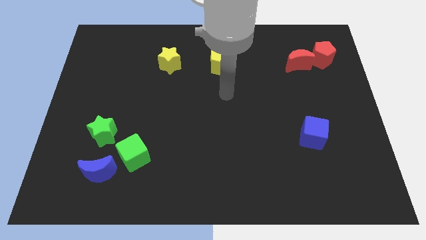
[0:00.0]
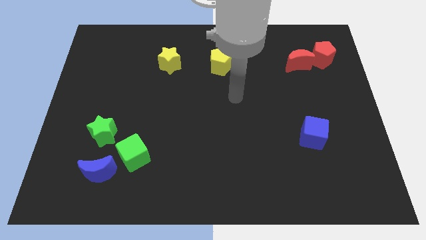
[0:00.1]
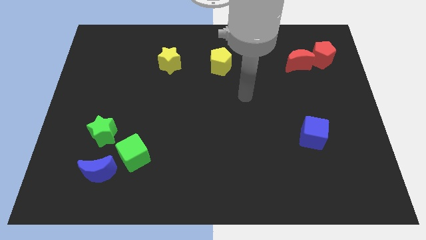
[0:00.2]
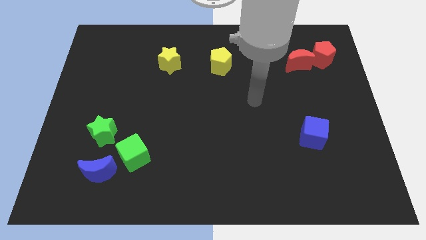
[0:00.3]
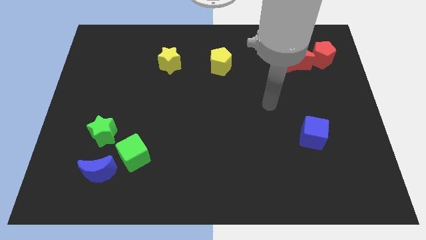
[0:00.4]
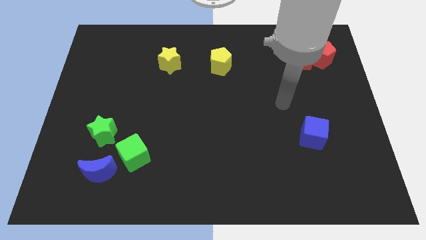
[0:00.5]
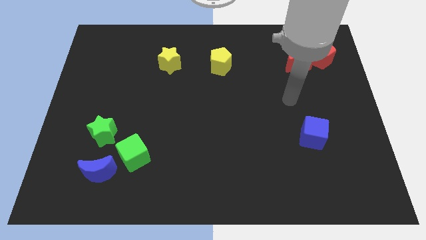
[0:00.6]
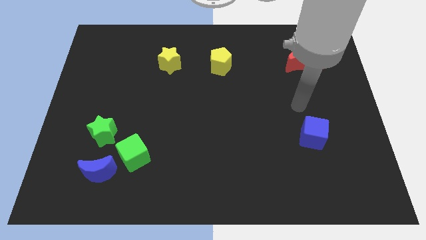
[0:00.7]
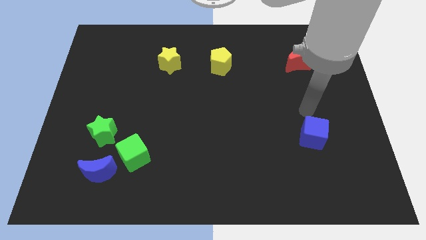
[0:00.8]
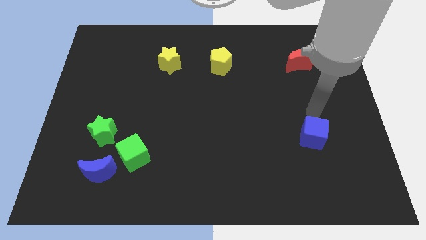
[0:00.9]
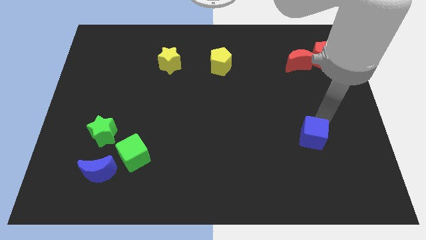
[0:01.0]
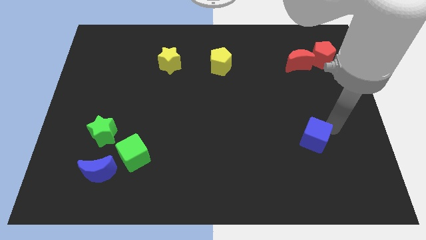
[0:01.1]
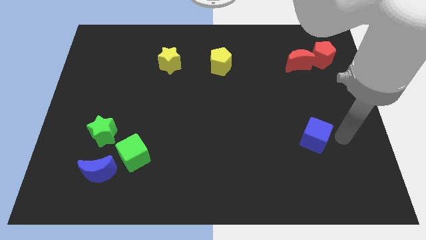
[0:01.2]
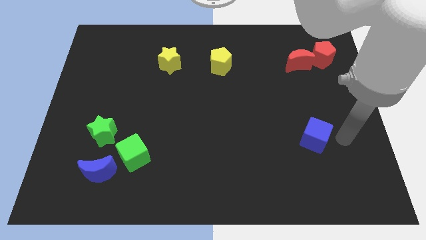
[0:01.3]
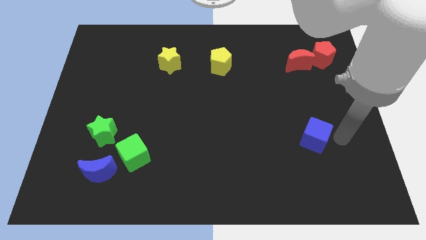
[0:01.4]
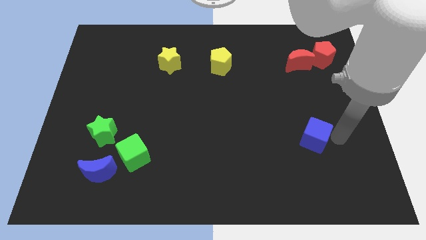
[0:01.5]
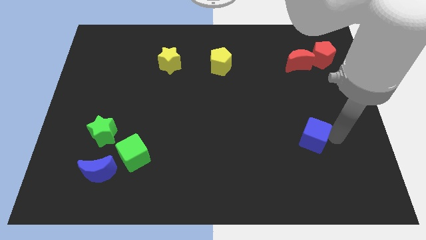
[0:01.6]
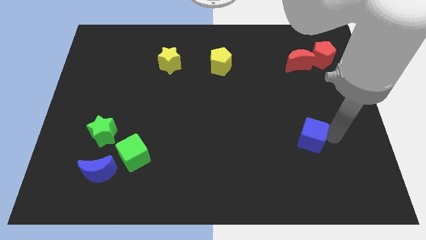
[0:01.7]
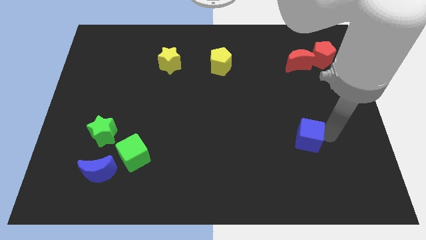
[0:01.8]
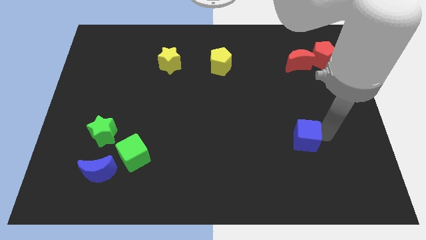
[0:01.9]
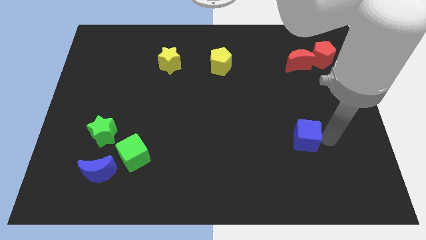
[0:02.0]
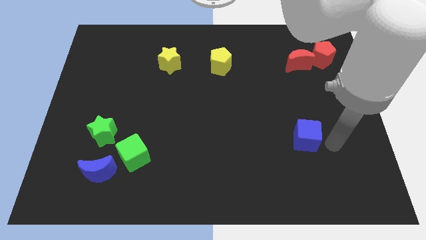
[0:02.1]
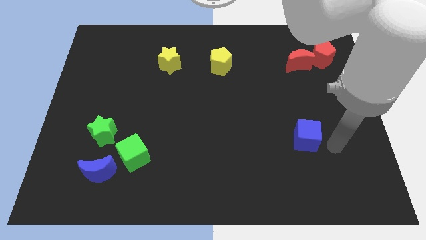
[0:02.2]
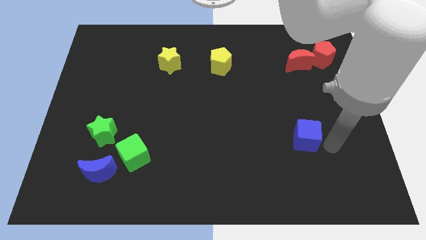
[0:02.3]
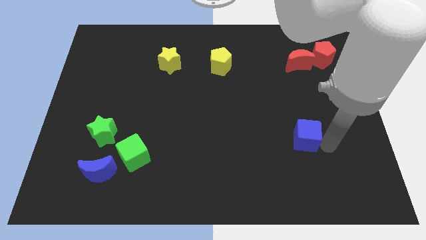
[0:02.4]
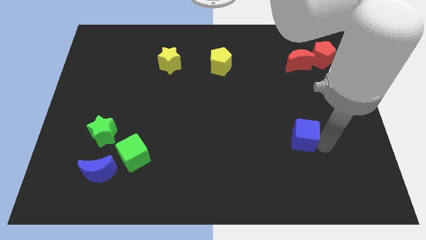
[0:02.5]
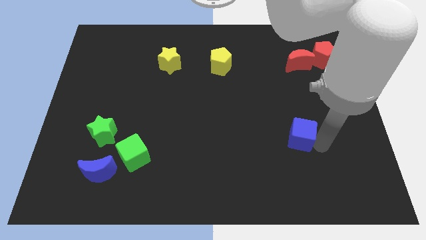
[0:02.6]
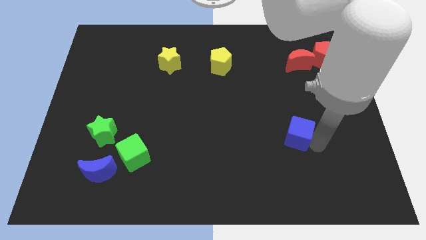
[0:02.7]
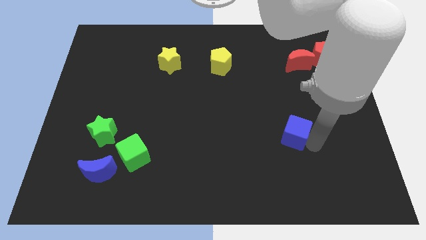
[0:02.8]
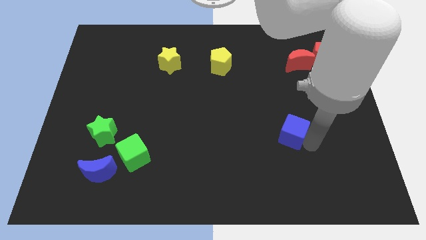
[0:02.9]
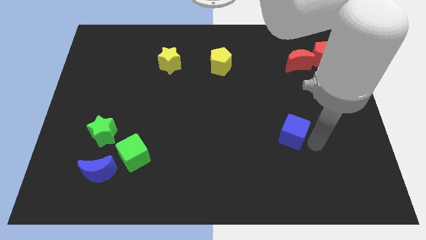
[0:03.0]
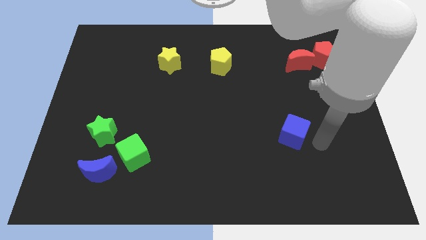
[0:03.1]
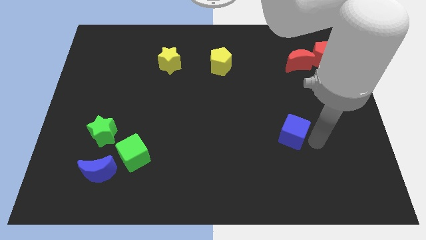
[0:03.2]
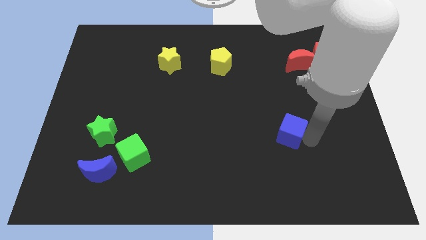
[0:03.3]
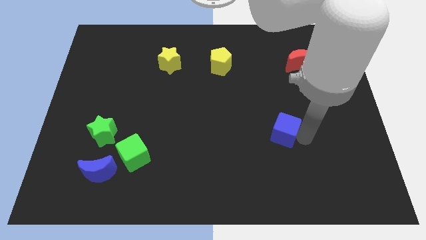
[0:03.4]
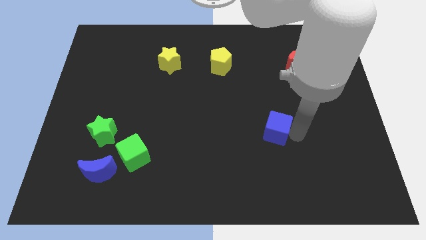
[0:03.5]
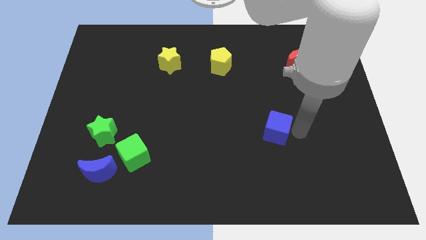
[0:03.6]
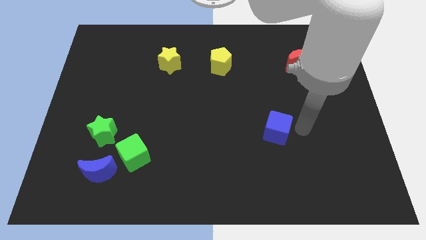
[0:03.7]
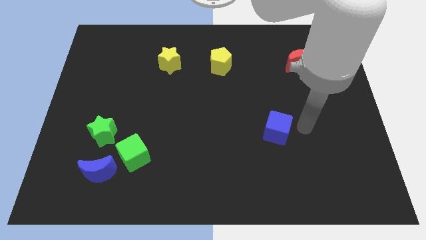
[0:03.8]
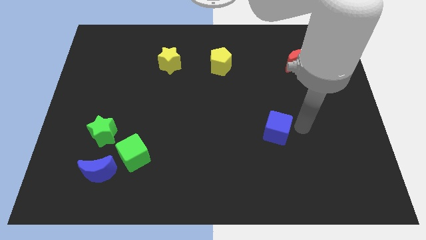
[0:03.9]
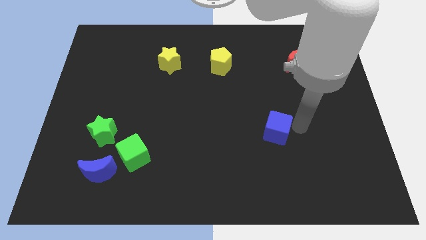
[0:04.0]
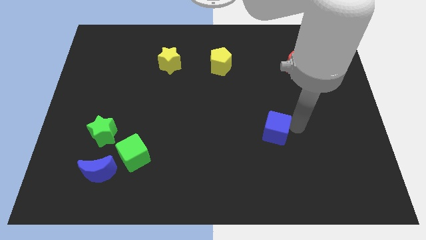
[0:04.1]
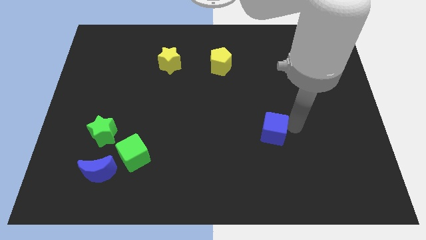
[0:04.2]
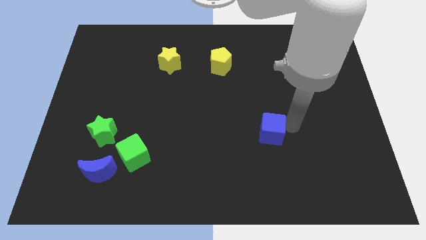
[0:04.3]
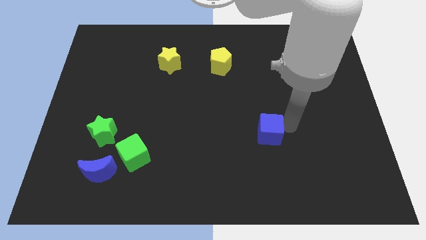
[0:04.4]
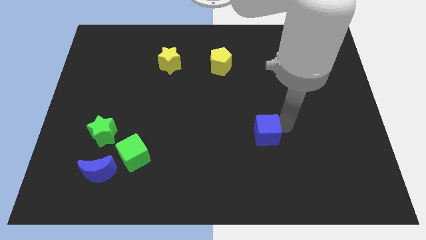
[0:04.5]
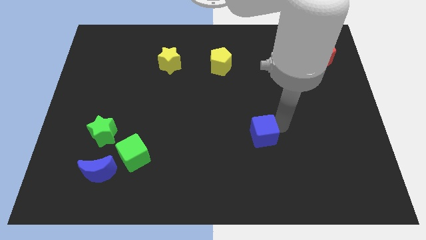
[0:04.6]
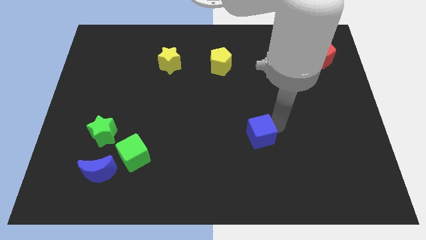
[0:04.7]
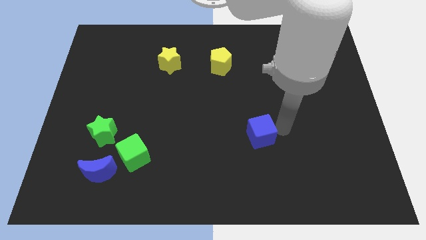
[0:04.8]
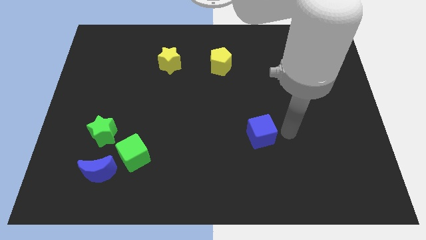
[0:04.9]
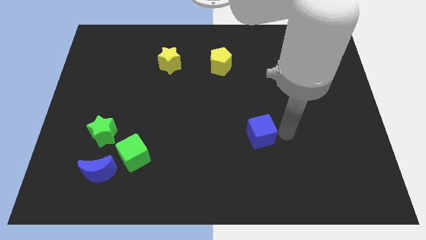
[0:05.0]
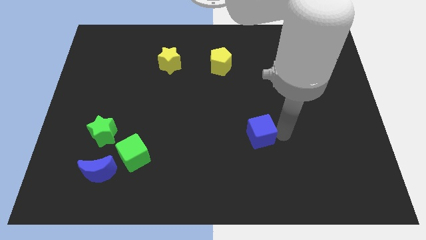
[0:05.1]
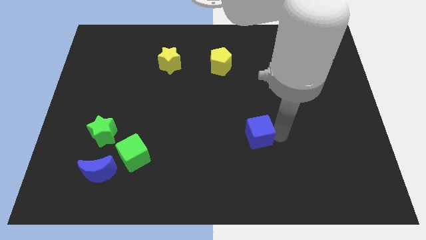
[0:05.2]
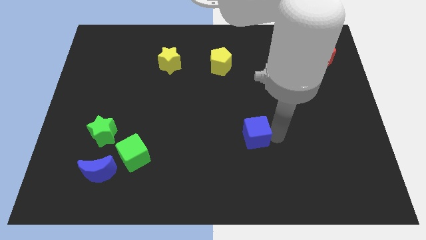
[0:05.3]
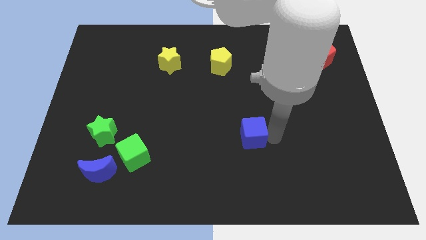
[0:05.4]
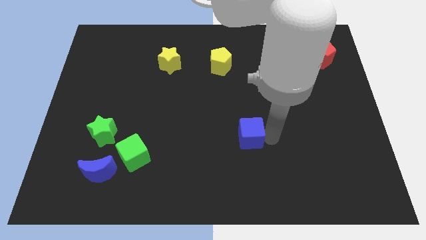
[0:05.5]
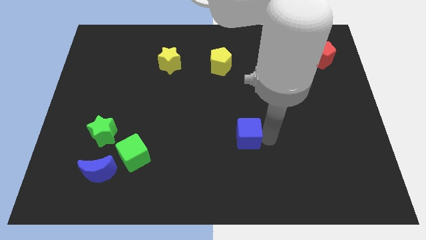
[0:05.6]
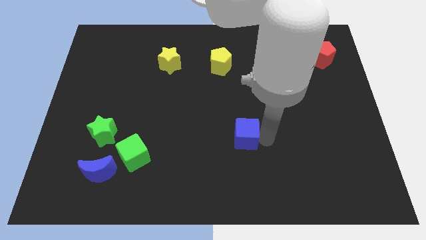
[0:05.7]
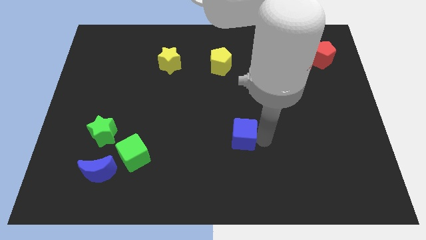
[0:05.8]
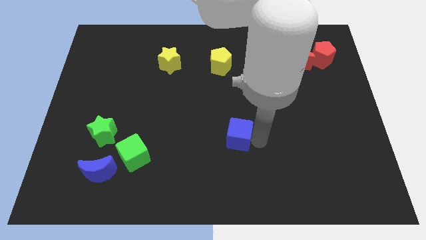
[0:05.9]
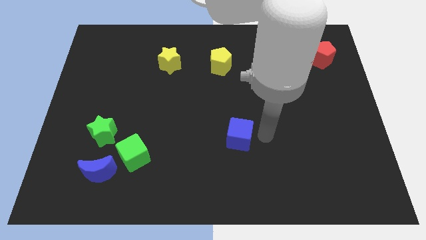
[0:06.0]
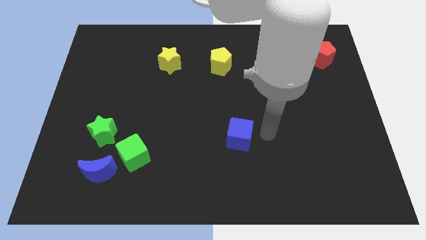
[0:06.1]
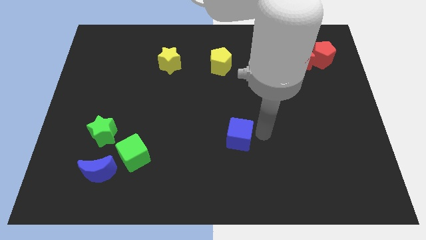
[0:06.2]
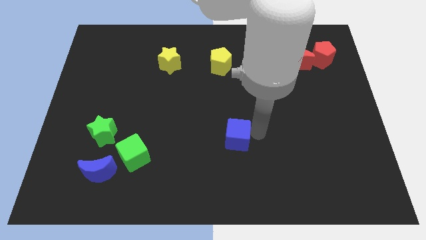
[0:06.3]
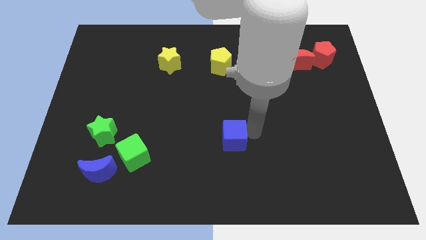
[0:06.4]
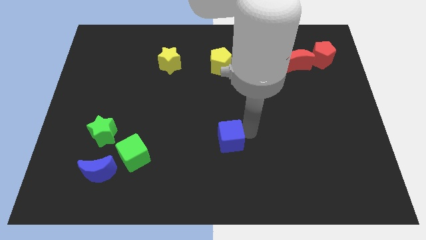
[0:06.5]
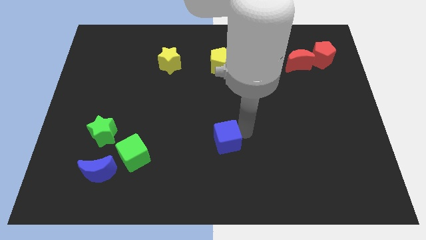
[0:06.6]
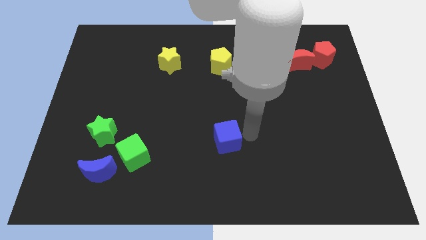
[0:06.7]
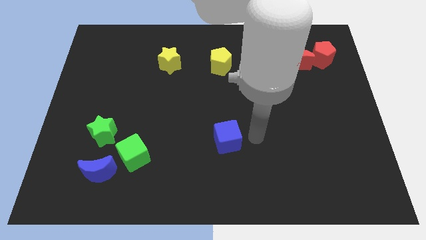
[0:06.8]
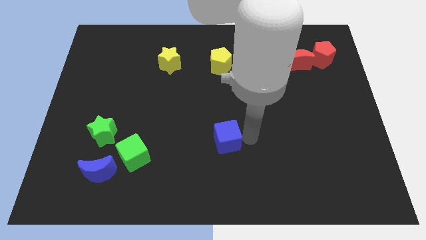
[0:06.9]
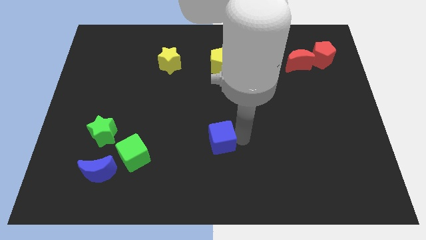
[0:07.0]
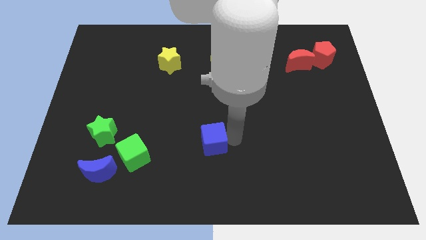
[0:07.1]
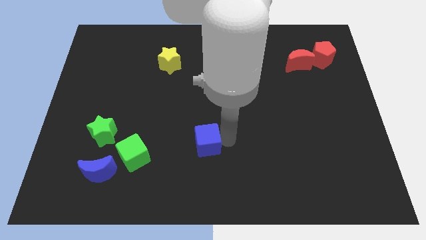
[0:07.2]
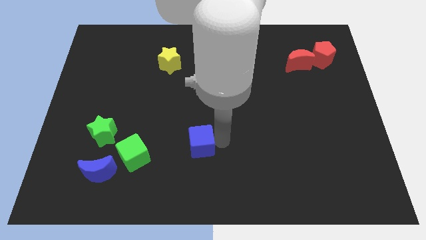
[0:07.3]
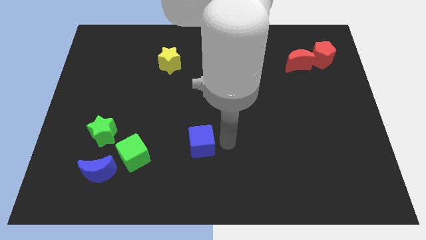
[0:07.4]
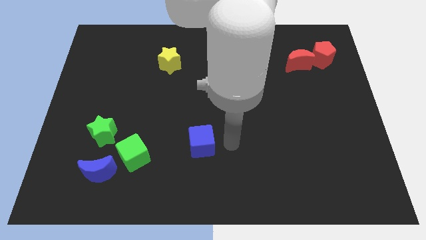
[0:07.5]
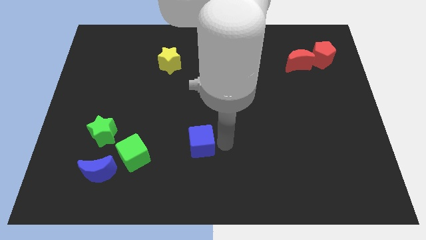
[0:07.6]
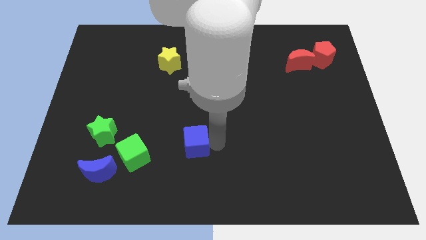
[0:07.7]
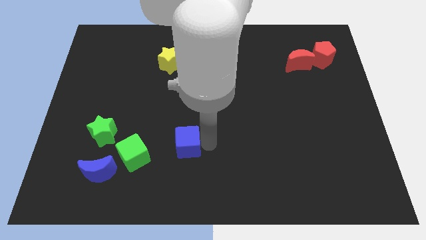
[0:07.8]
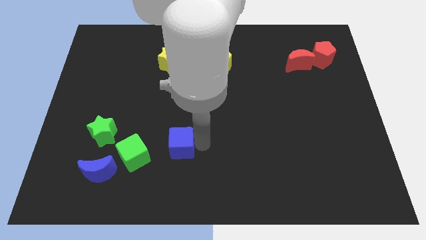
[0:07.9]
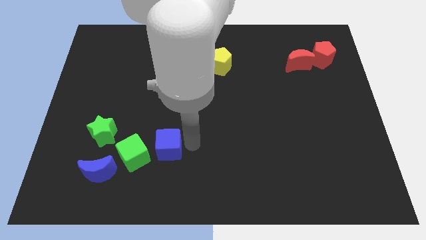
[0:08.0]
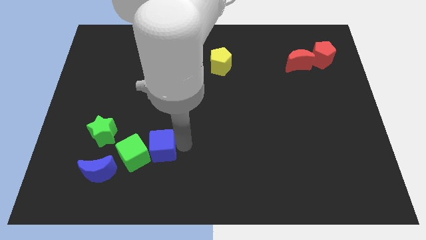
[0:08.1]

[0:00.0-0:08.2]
slide the blue cube close to the green cube
